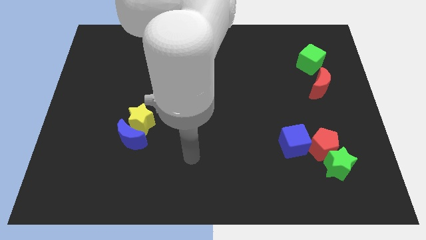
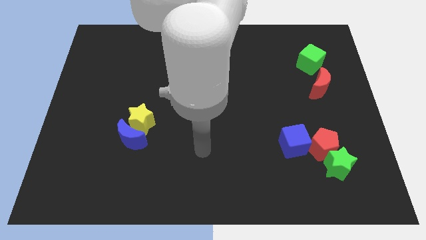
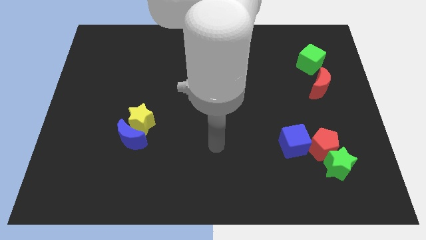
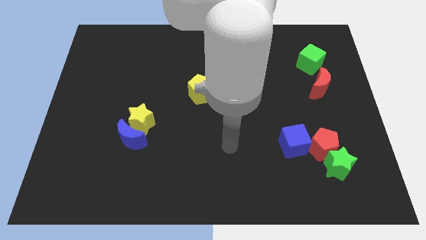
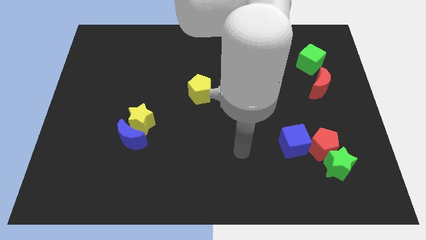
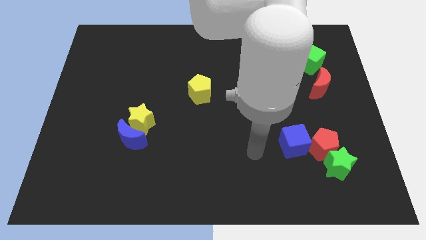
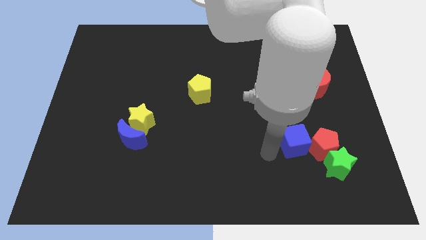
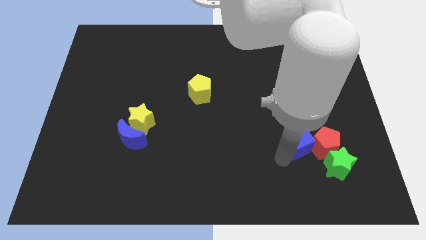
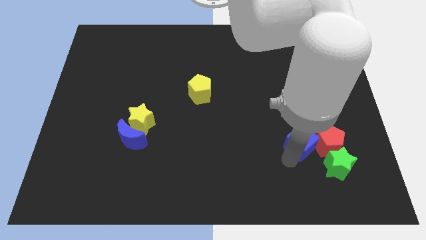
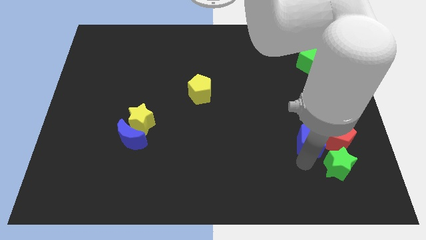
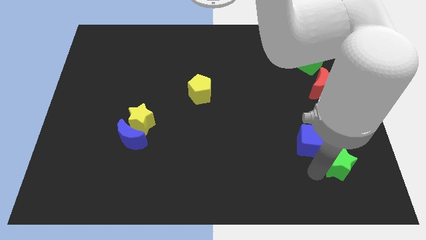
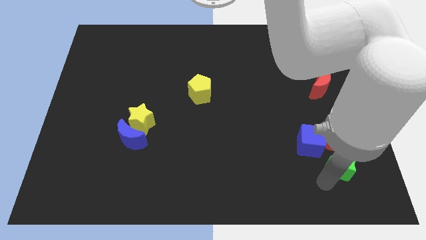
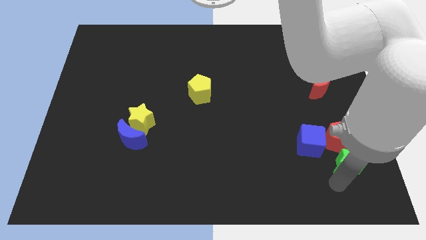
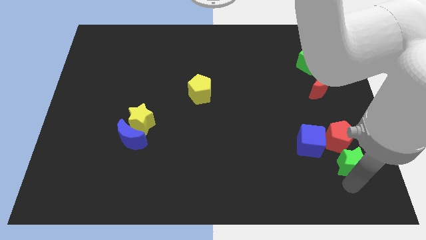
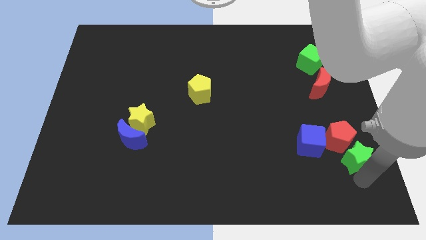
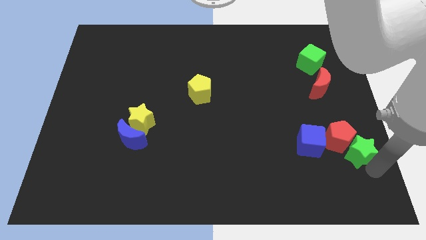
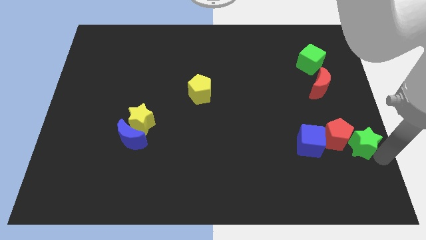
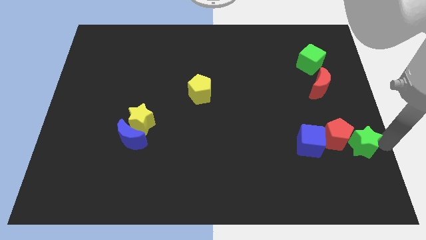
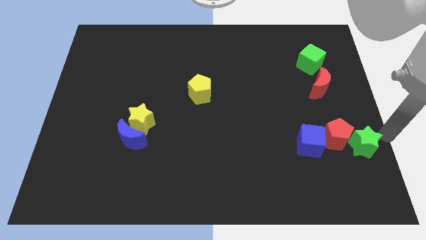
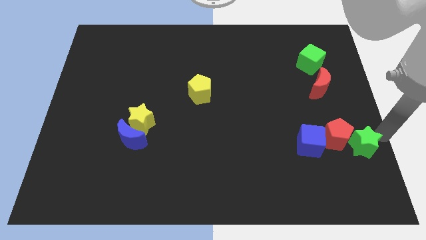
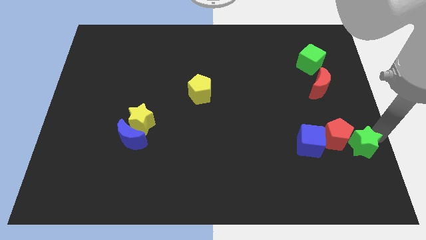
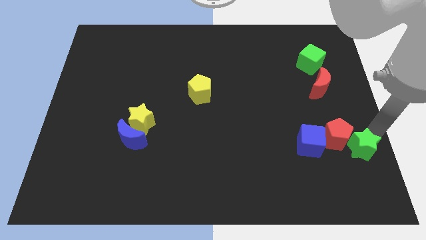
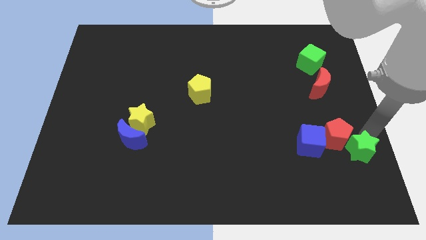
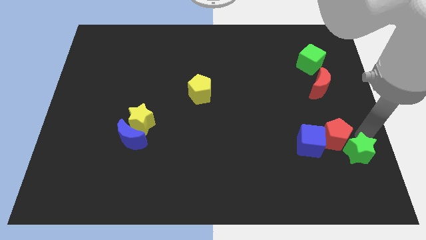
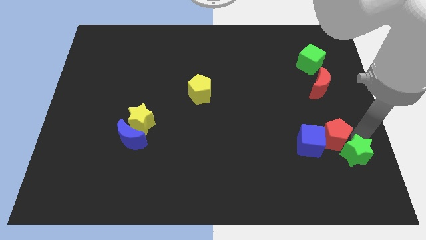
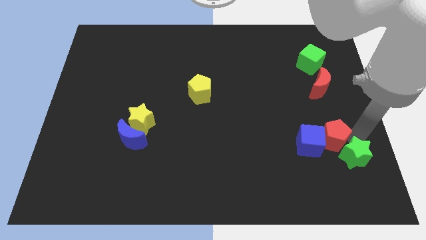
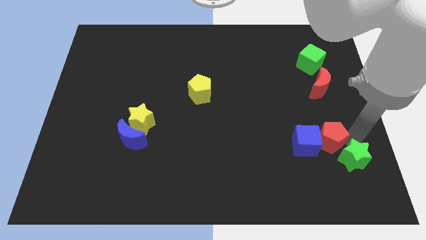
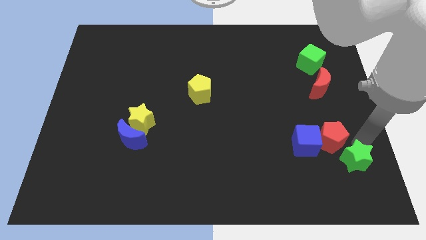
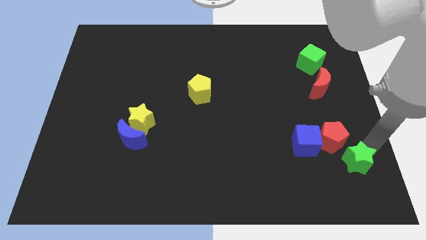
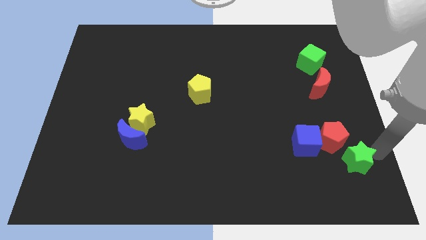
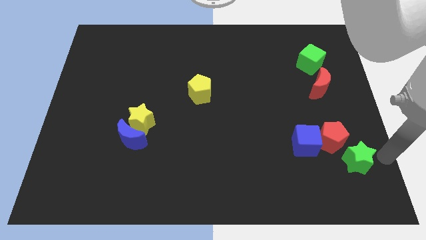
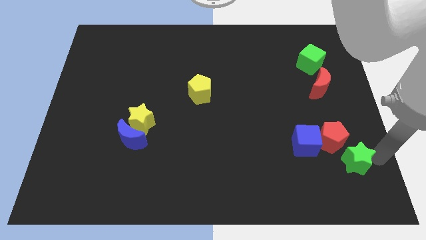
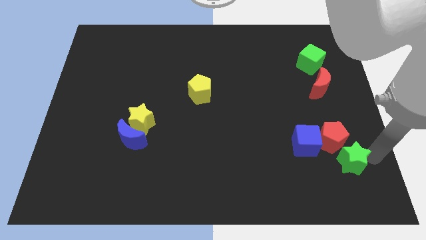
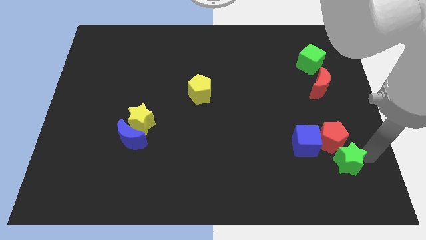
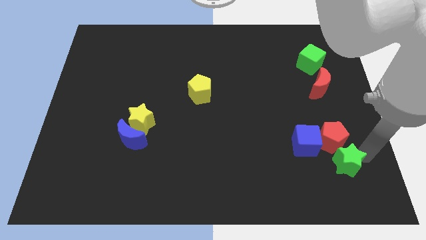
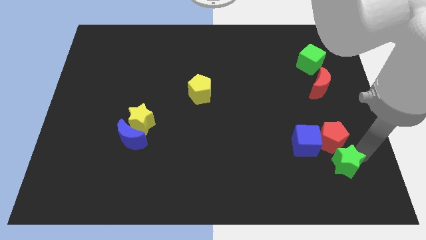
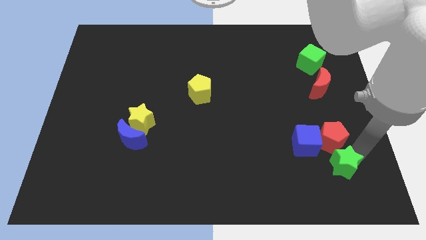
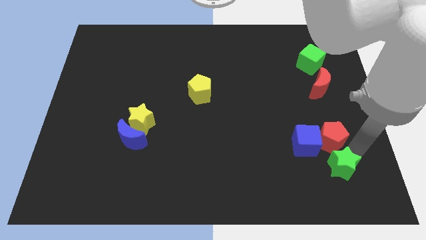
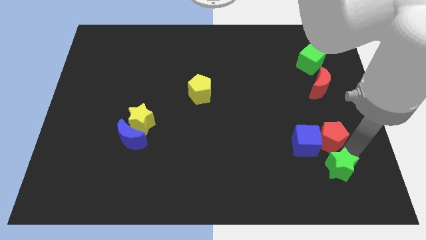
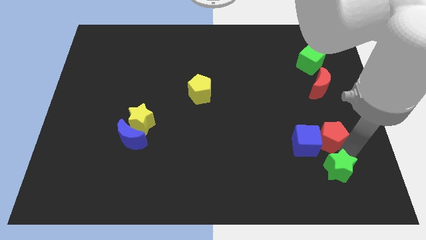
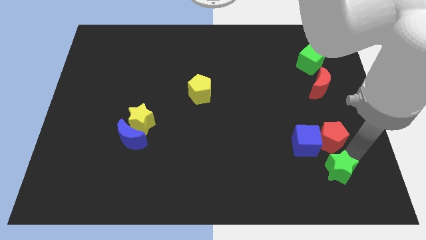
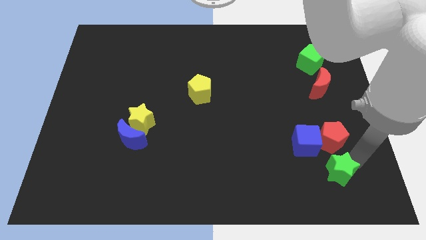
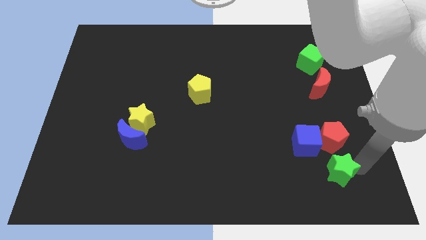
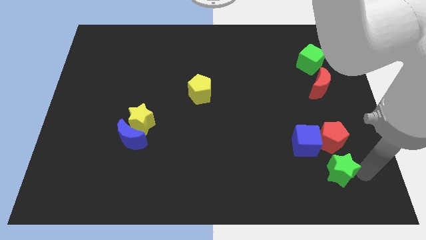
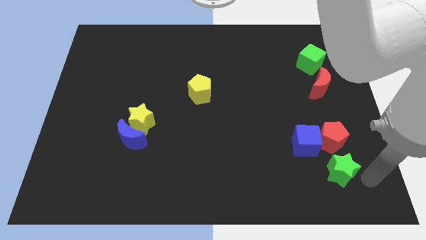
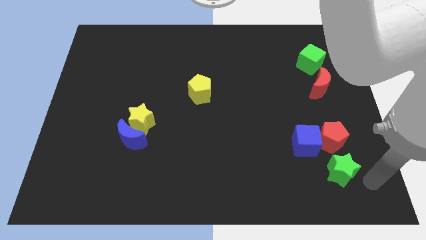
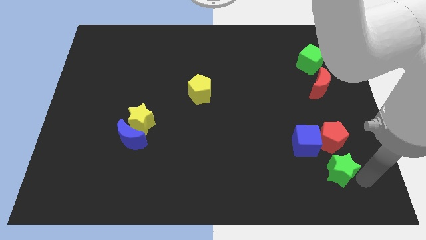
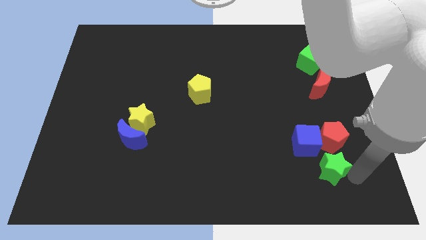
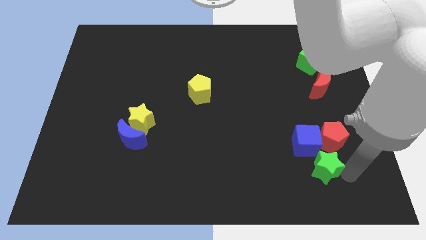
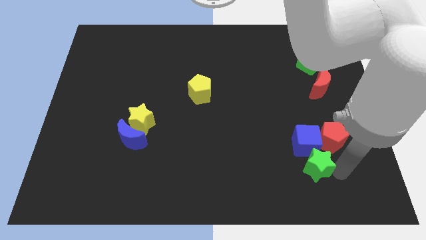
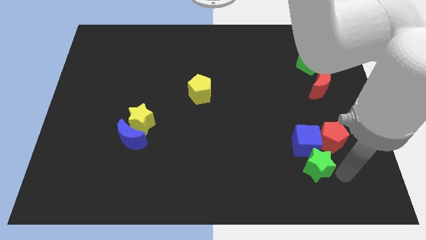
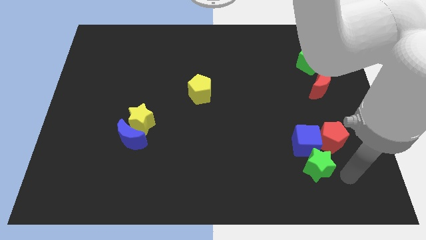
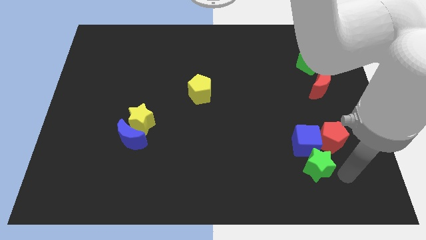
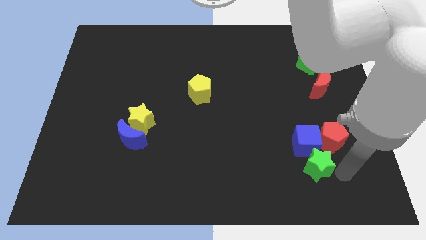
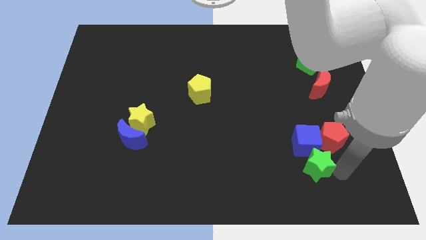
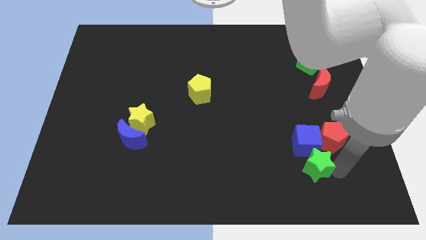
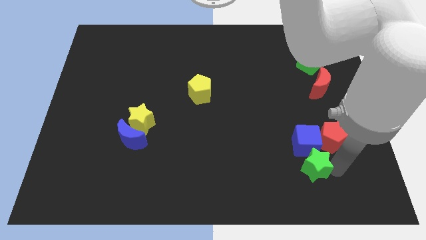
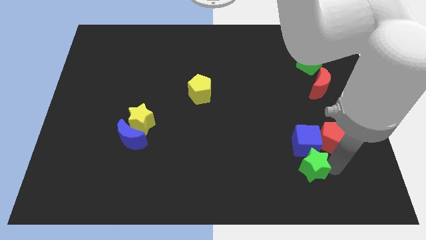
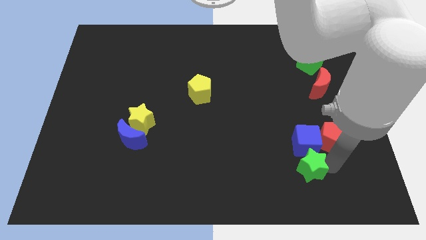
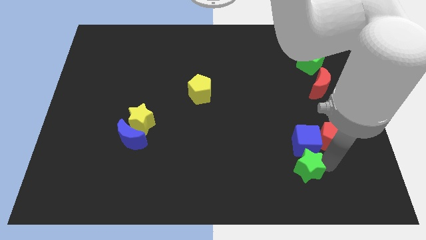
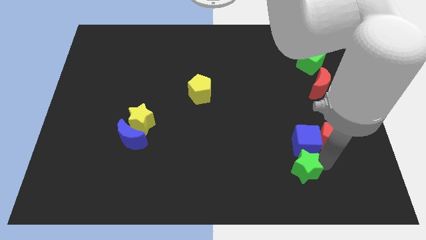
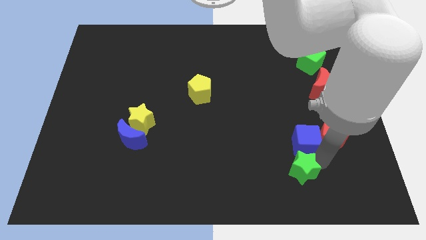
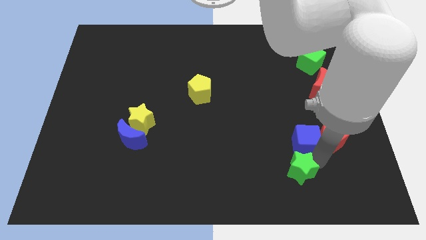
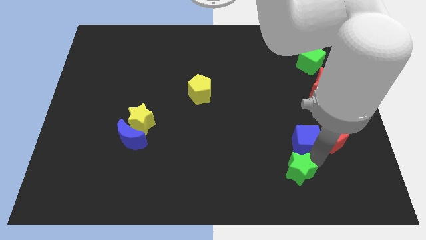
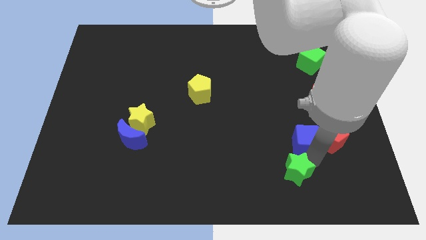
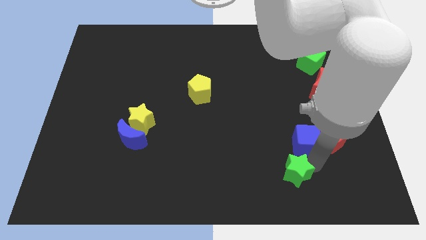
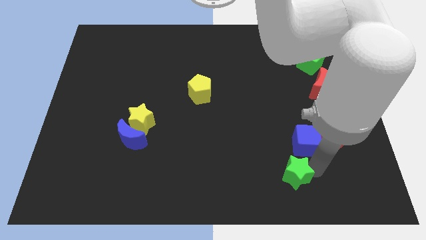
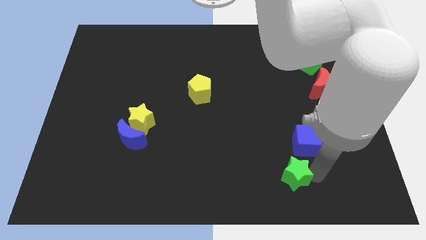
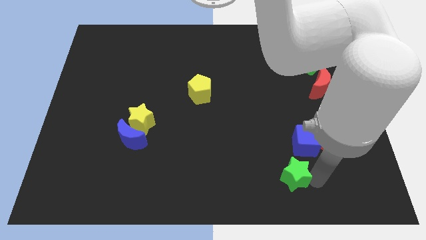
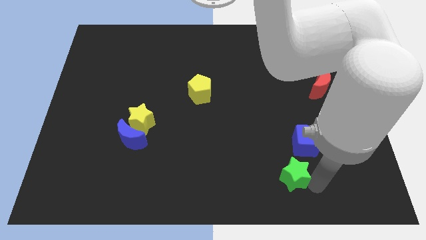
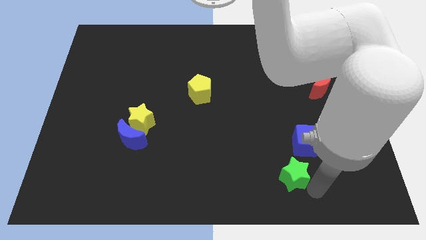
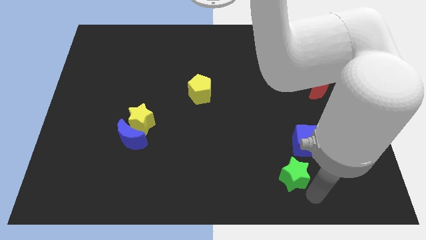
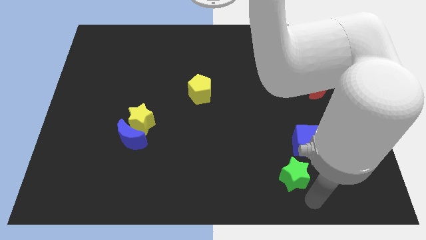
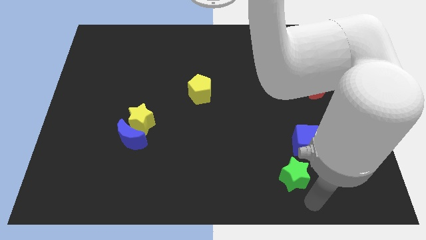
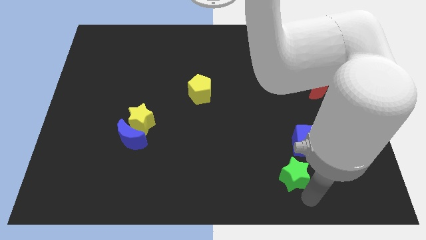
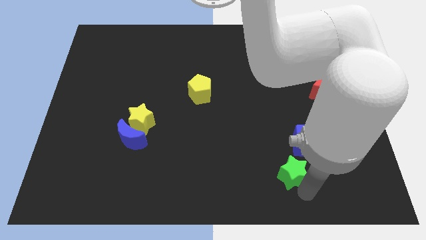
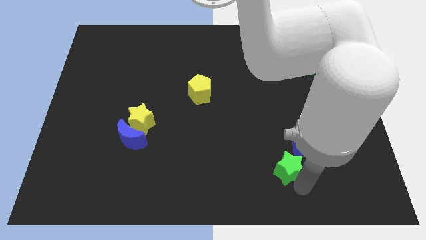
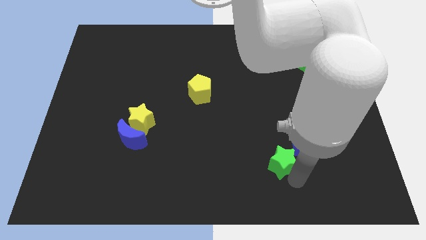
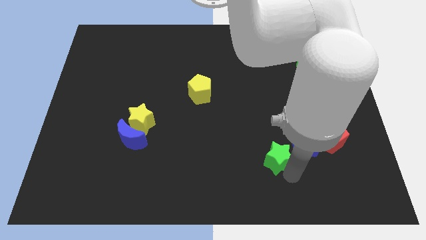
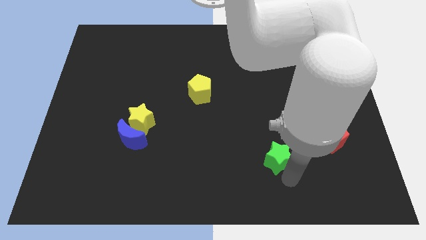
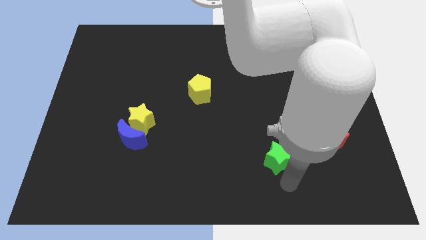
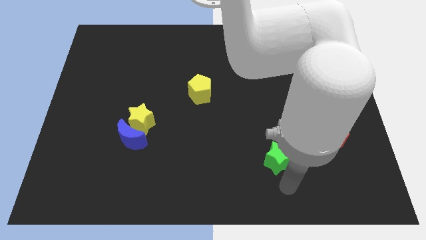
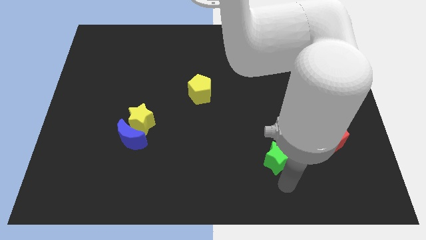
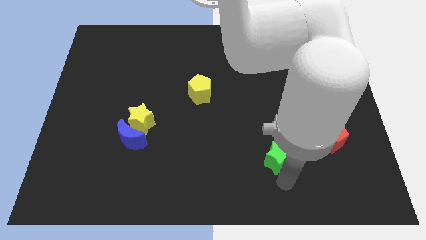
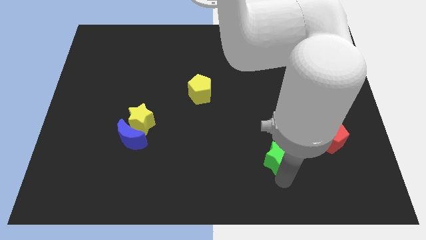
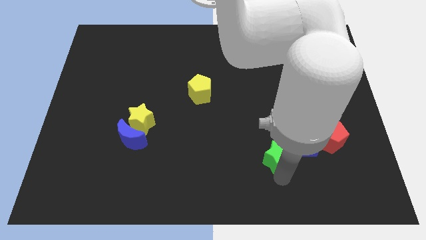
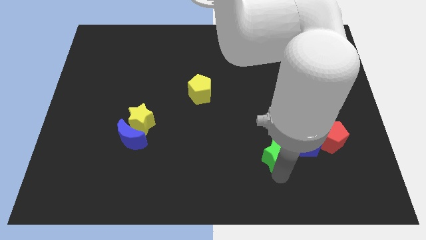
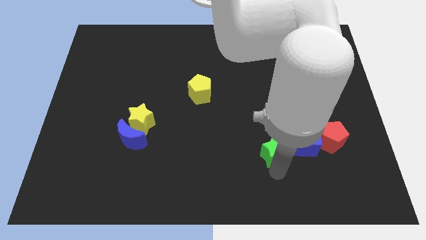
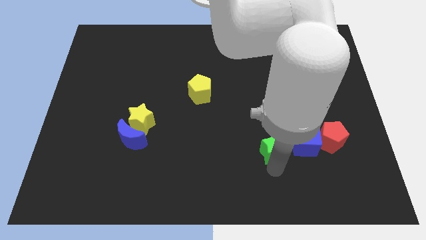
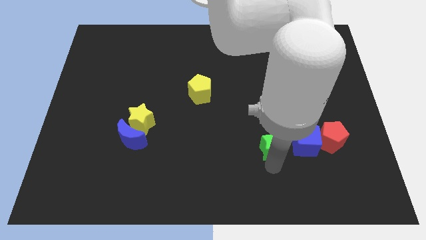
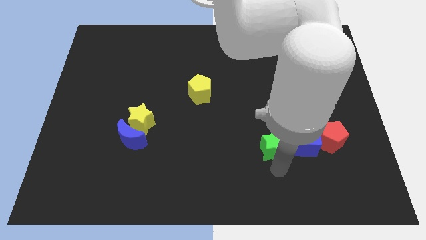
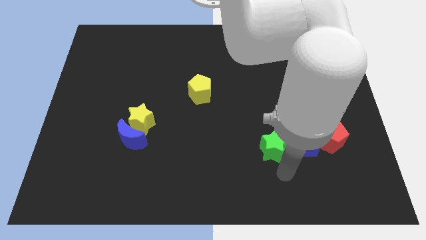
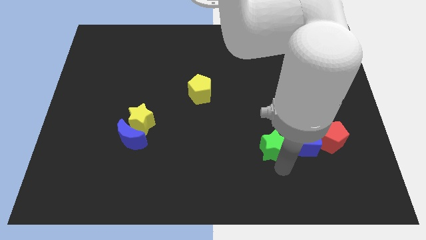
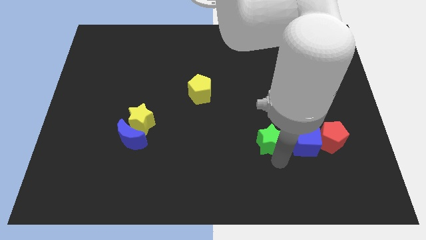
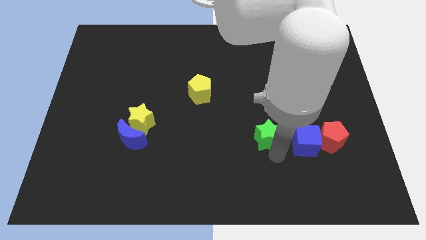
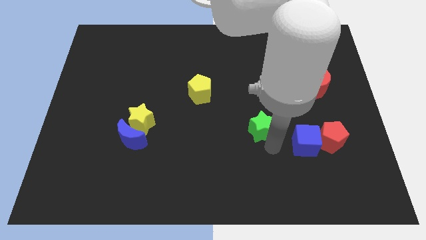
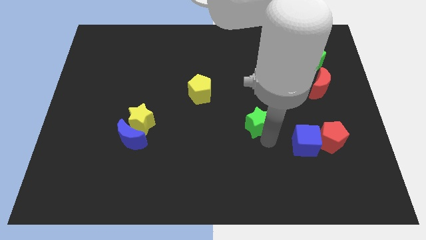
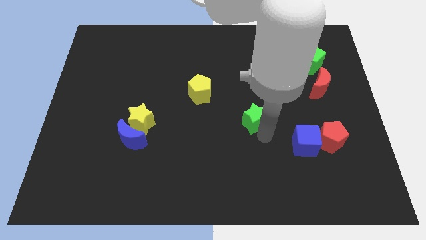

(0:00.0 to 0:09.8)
move the green star upwards and left diagonally
